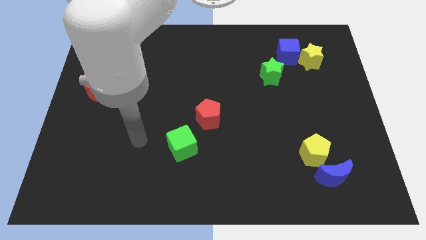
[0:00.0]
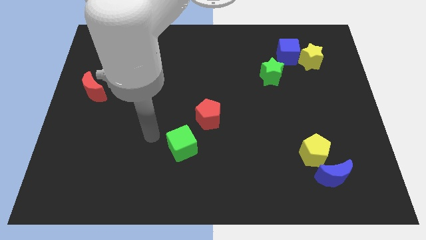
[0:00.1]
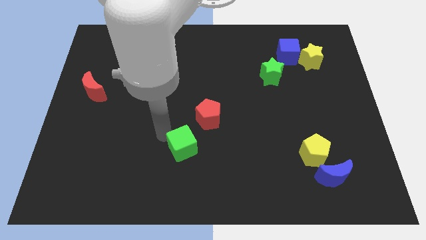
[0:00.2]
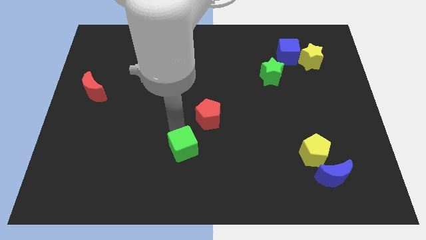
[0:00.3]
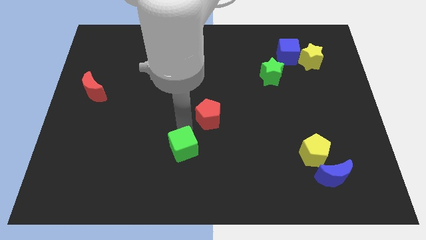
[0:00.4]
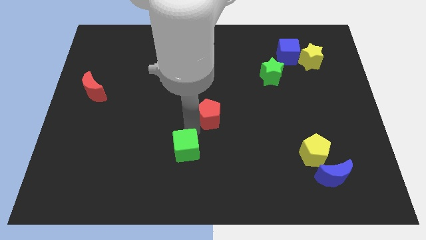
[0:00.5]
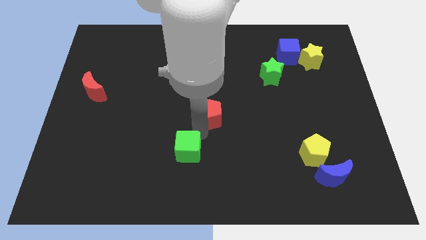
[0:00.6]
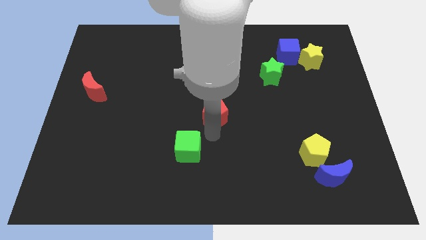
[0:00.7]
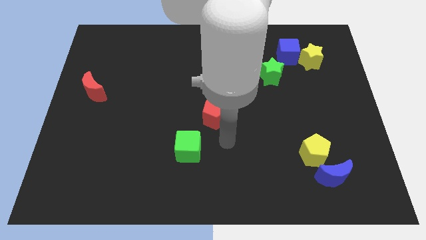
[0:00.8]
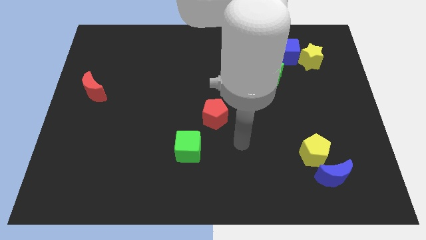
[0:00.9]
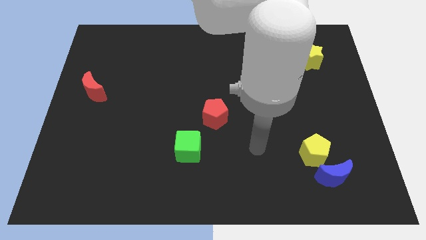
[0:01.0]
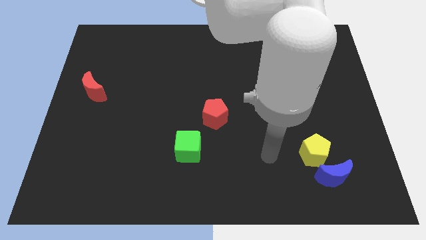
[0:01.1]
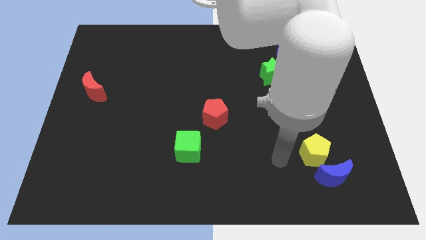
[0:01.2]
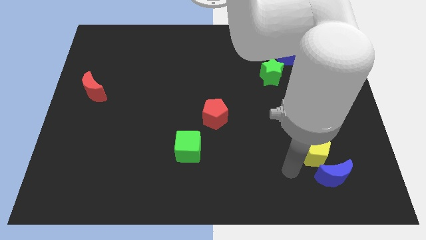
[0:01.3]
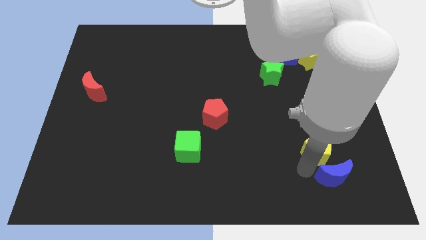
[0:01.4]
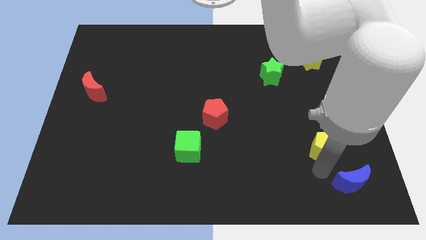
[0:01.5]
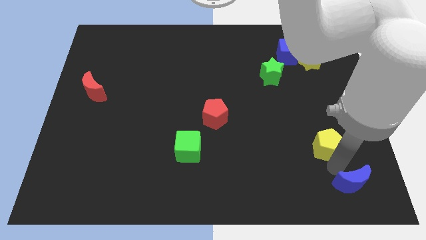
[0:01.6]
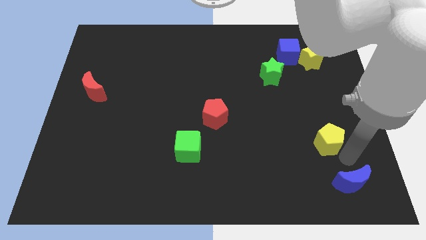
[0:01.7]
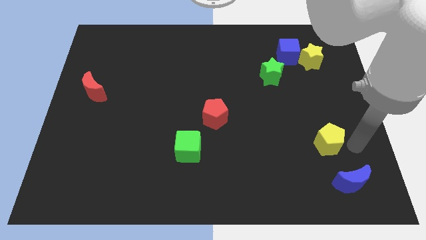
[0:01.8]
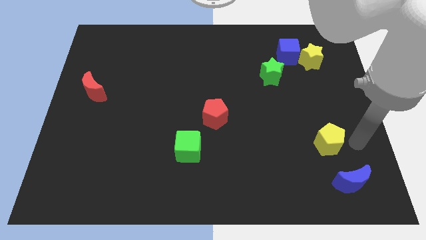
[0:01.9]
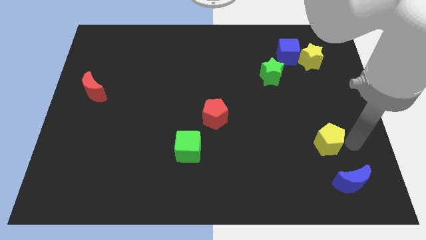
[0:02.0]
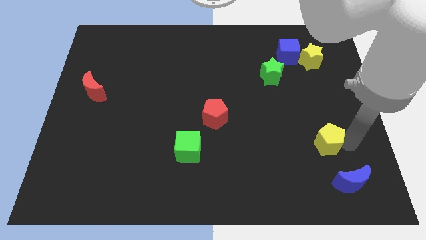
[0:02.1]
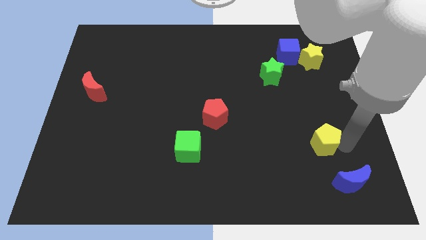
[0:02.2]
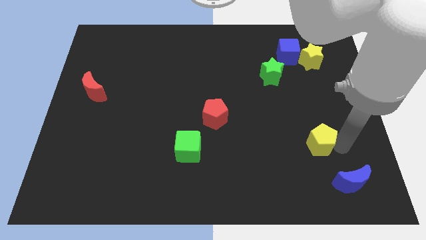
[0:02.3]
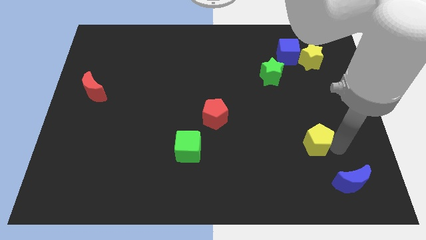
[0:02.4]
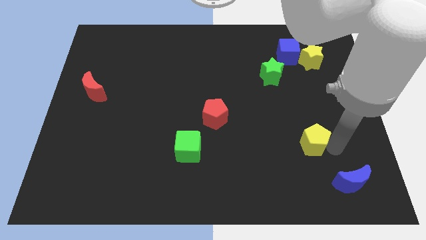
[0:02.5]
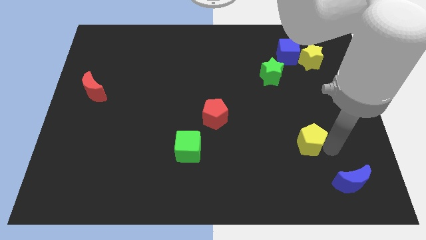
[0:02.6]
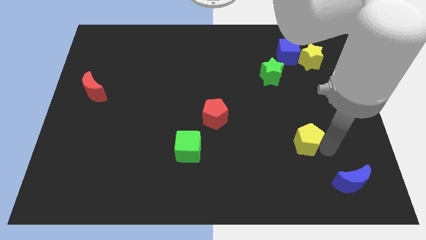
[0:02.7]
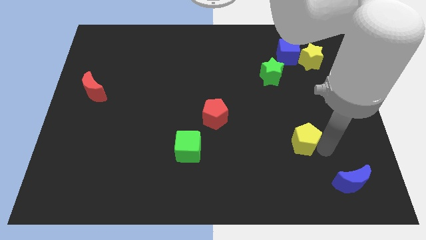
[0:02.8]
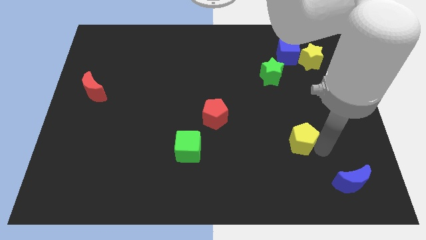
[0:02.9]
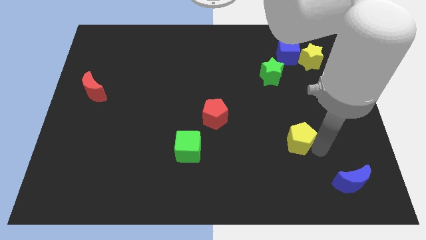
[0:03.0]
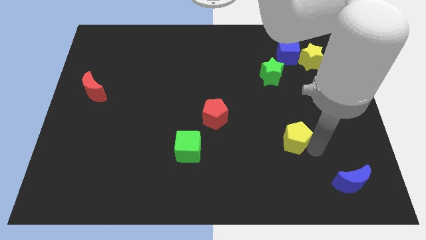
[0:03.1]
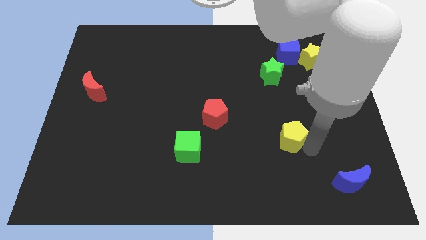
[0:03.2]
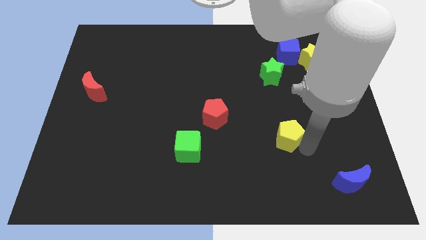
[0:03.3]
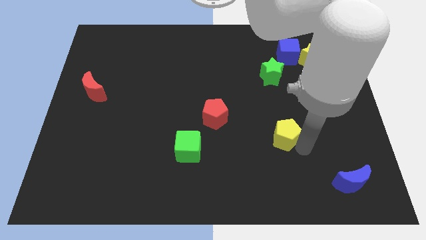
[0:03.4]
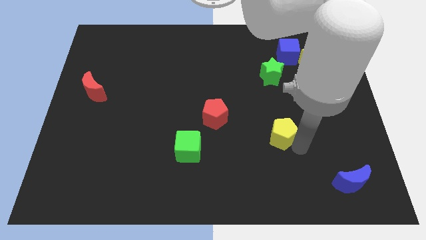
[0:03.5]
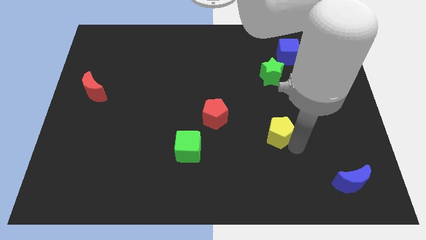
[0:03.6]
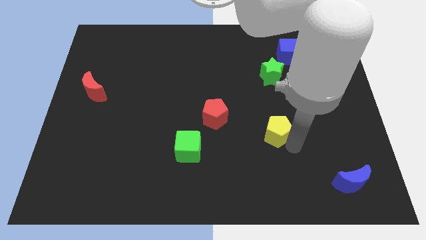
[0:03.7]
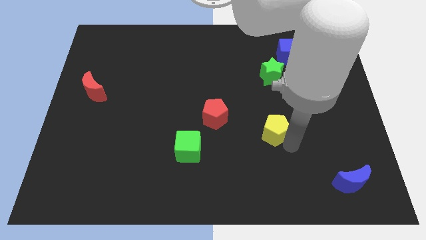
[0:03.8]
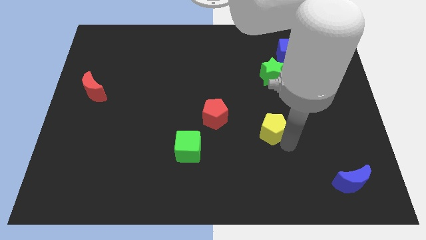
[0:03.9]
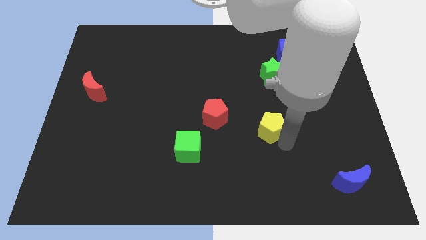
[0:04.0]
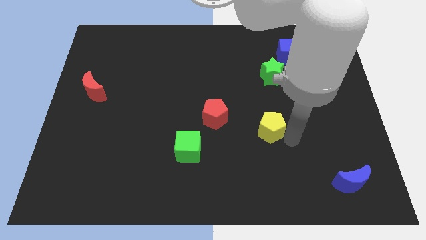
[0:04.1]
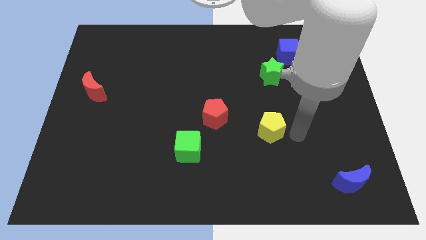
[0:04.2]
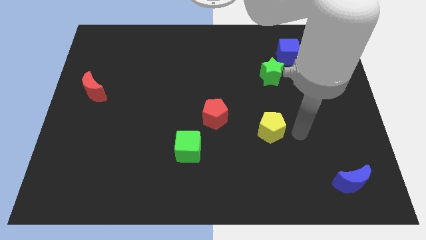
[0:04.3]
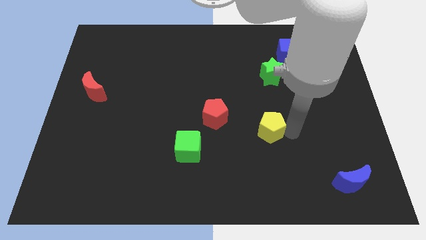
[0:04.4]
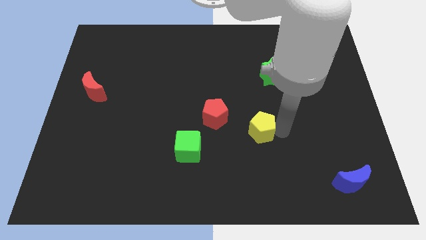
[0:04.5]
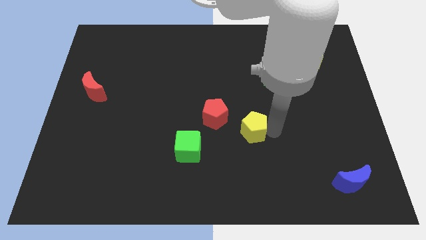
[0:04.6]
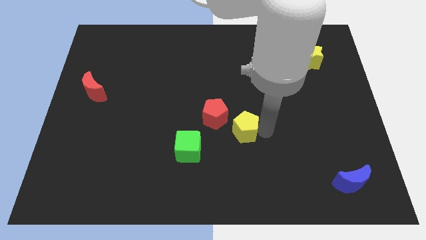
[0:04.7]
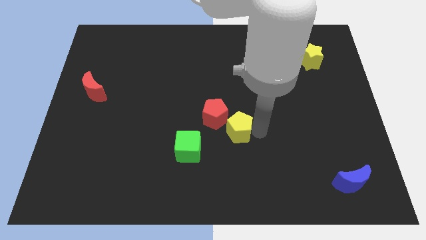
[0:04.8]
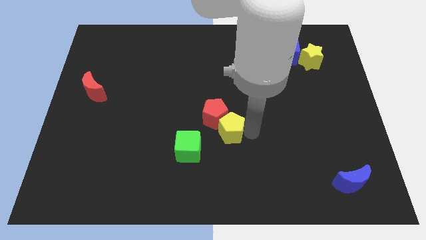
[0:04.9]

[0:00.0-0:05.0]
slide the yellow pentagon close to the red pentagon

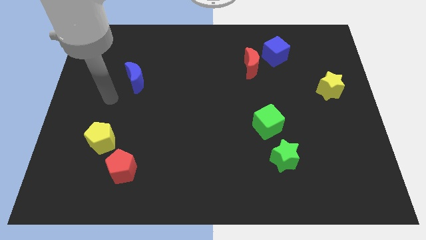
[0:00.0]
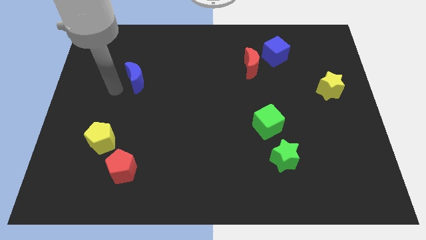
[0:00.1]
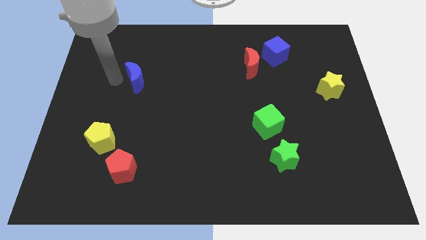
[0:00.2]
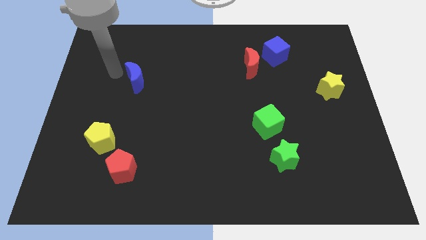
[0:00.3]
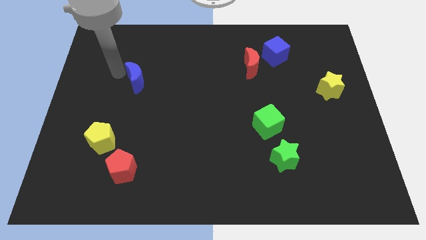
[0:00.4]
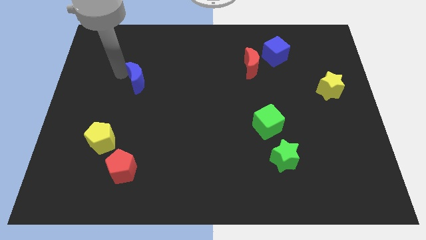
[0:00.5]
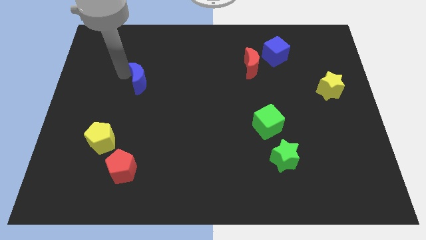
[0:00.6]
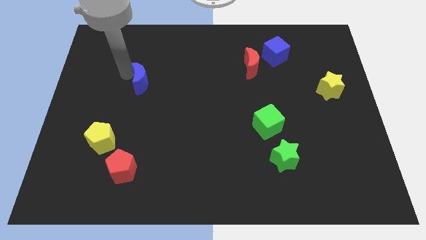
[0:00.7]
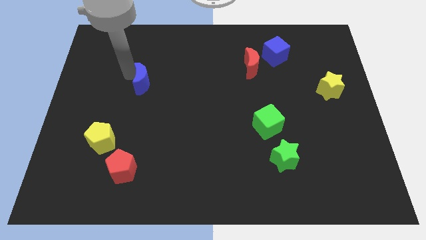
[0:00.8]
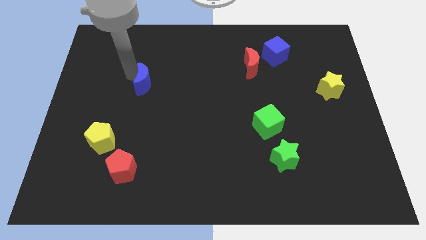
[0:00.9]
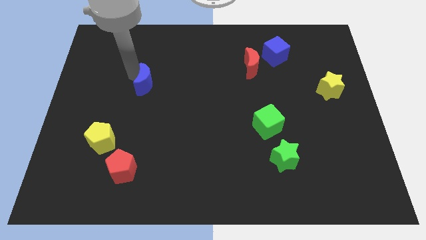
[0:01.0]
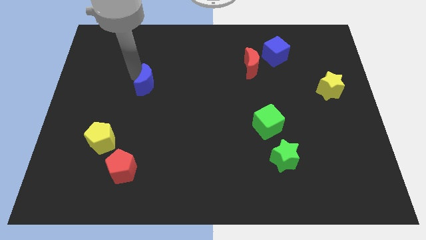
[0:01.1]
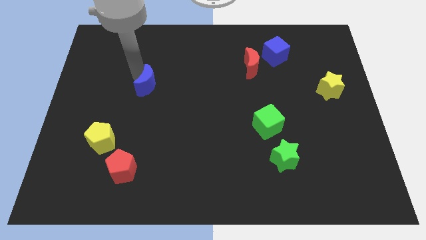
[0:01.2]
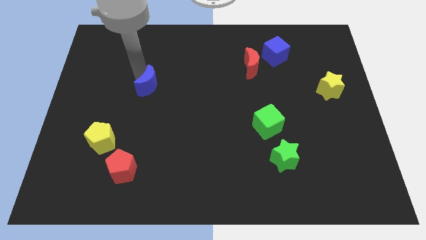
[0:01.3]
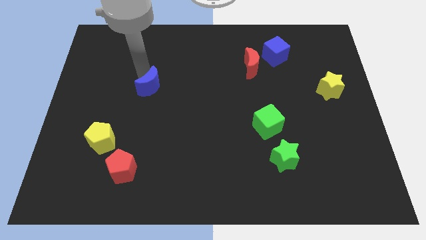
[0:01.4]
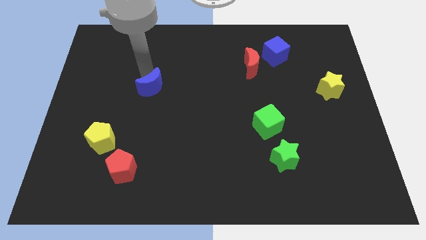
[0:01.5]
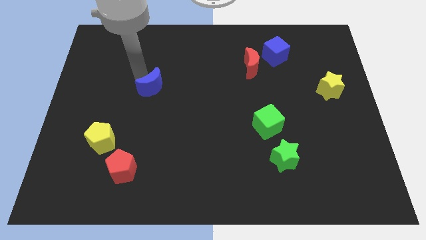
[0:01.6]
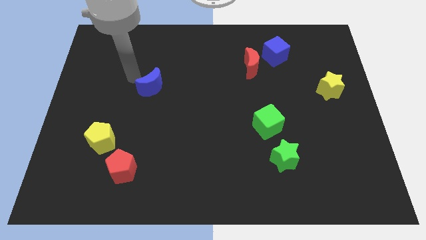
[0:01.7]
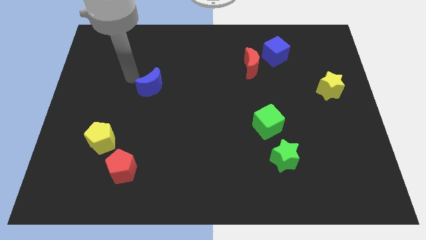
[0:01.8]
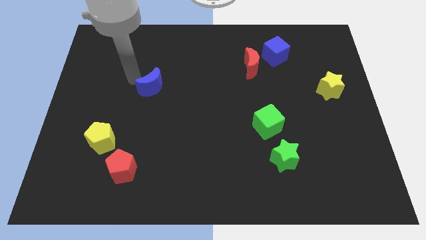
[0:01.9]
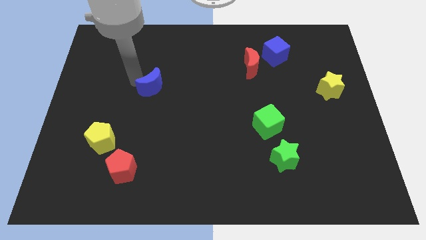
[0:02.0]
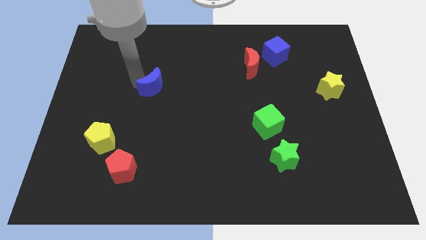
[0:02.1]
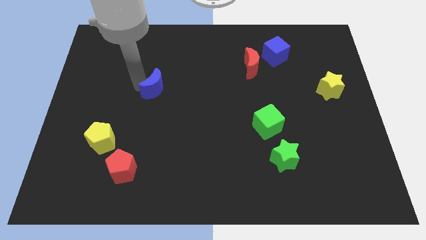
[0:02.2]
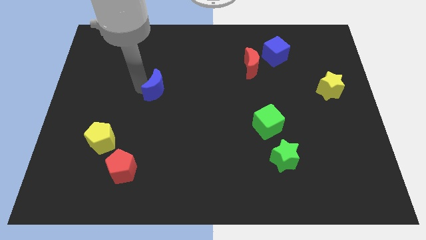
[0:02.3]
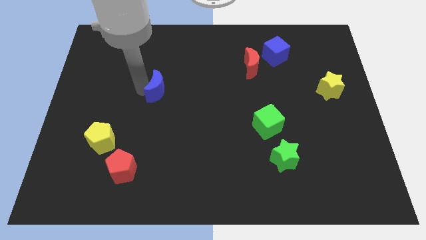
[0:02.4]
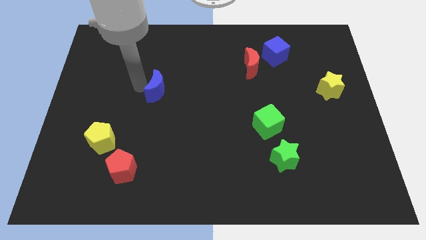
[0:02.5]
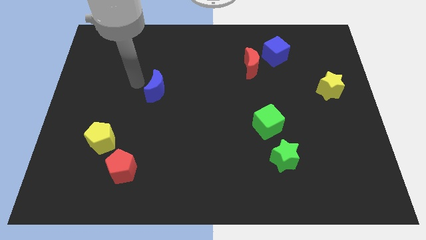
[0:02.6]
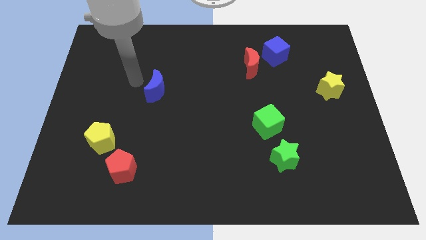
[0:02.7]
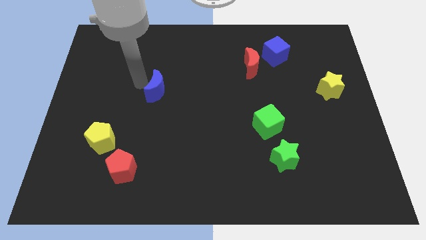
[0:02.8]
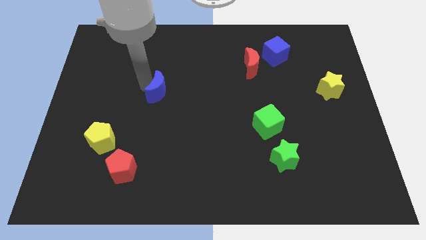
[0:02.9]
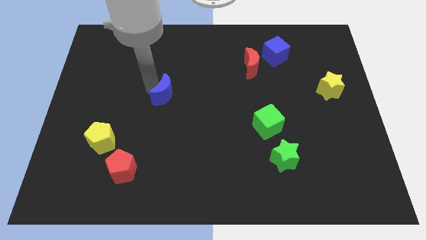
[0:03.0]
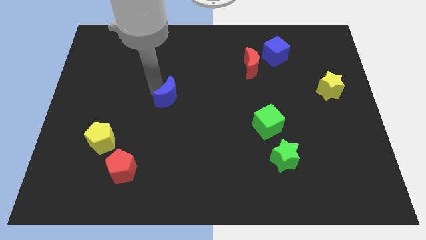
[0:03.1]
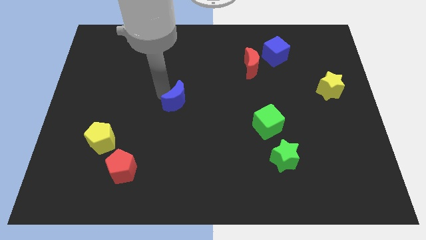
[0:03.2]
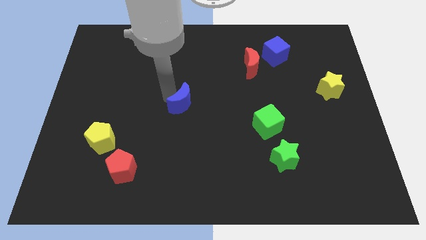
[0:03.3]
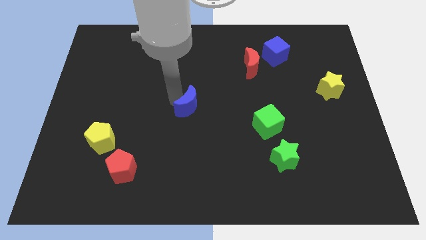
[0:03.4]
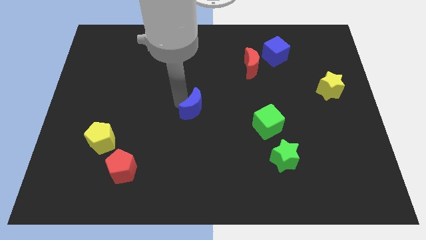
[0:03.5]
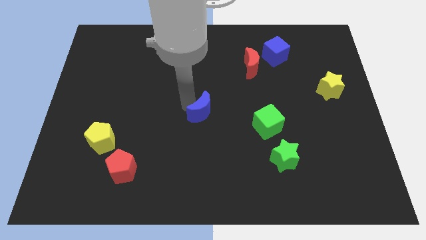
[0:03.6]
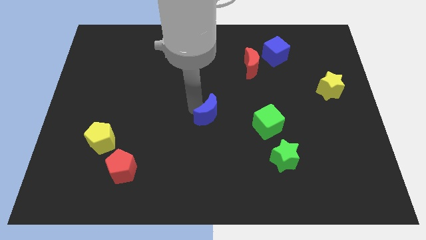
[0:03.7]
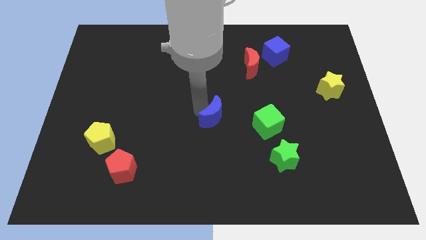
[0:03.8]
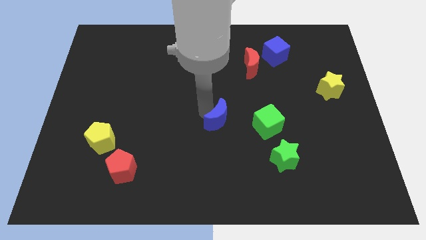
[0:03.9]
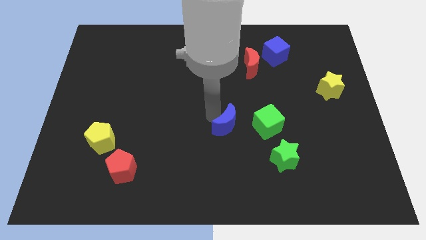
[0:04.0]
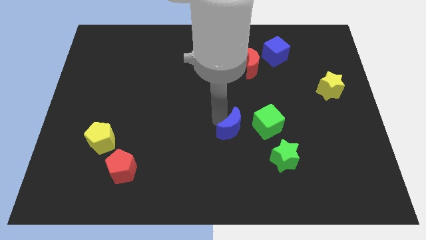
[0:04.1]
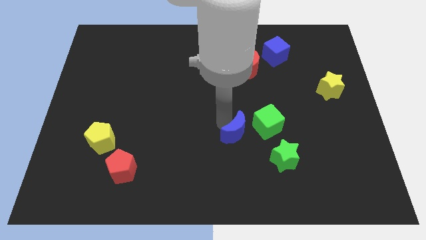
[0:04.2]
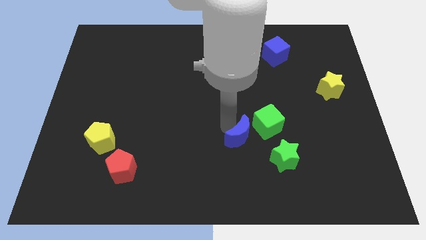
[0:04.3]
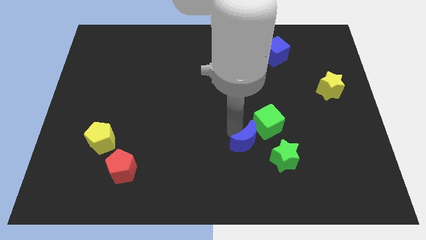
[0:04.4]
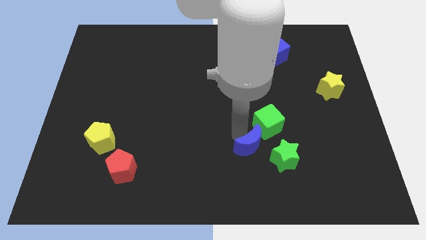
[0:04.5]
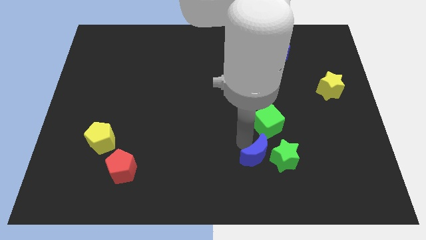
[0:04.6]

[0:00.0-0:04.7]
put the blue moon next to the green star
